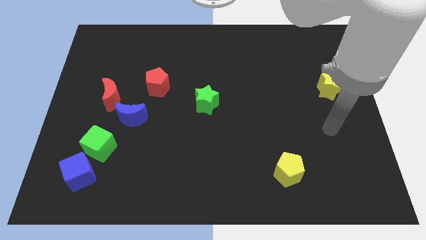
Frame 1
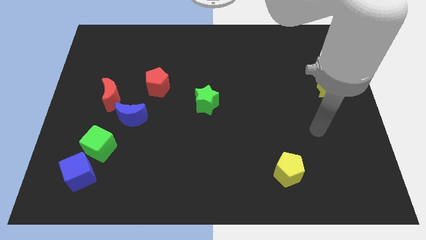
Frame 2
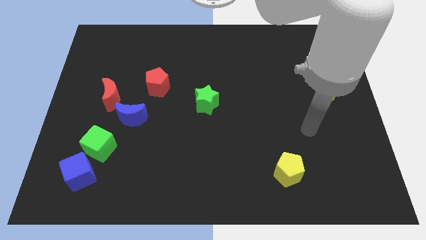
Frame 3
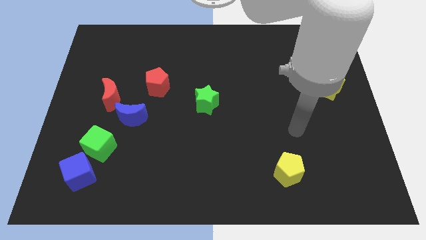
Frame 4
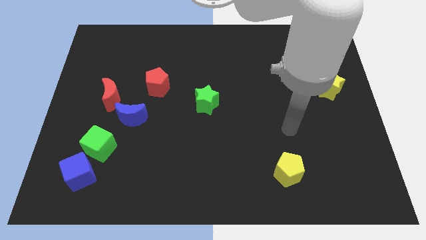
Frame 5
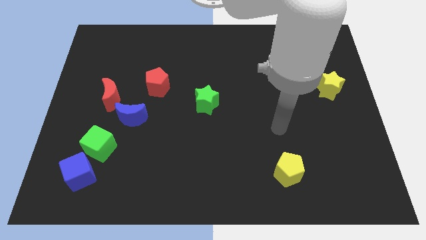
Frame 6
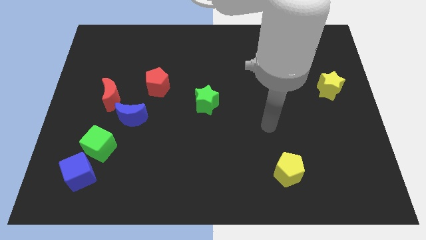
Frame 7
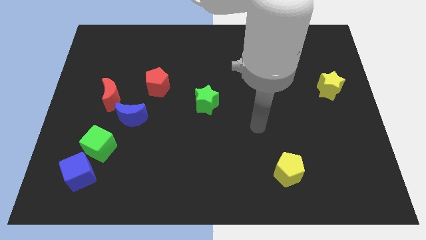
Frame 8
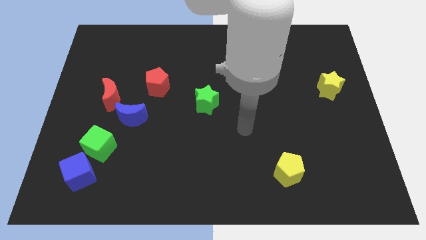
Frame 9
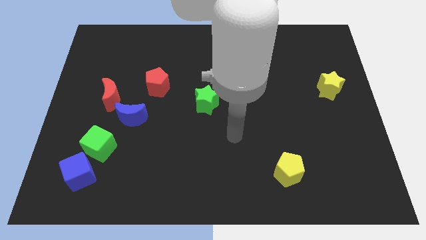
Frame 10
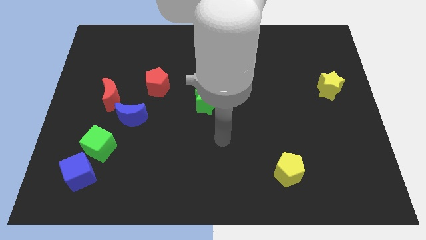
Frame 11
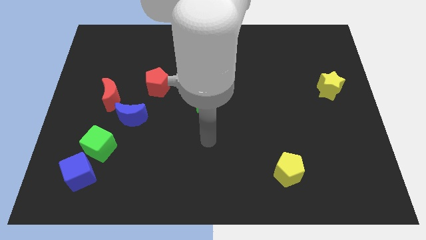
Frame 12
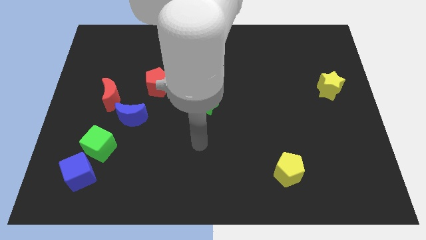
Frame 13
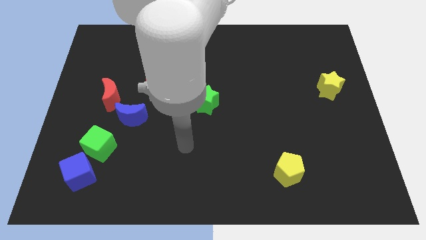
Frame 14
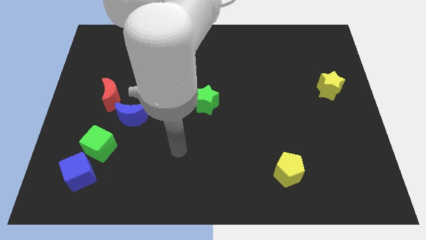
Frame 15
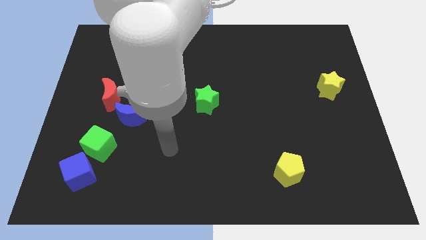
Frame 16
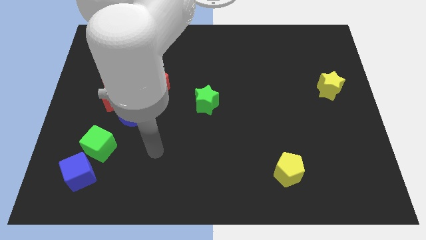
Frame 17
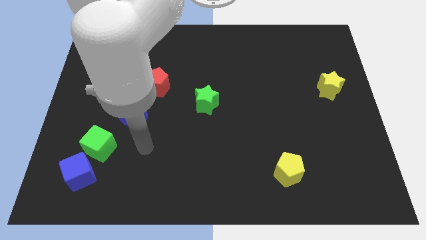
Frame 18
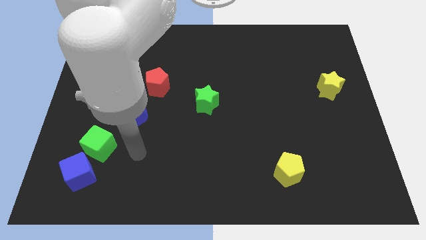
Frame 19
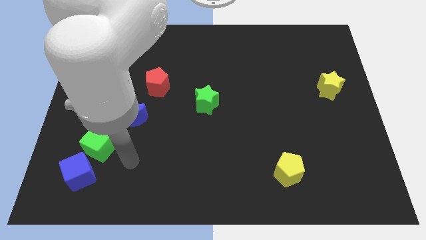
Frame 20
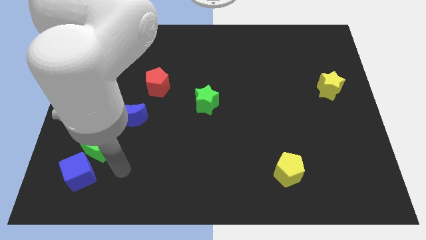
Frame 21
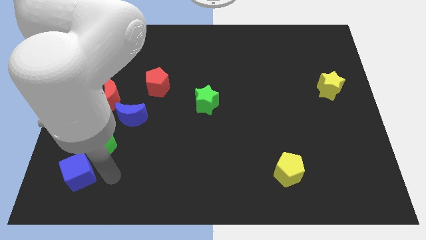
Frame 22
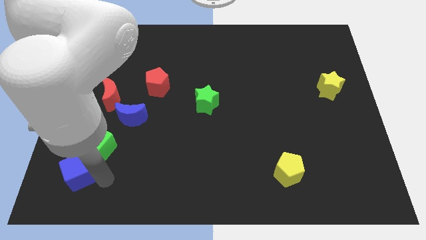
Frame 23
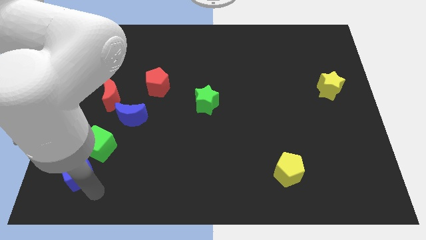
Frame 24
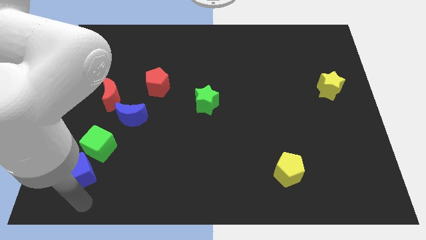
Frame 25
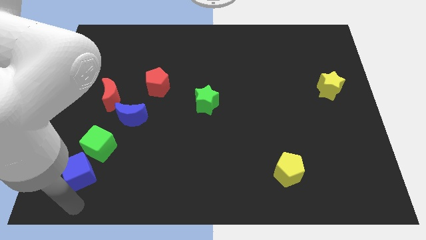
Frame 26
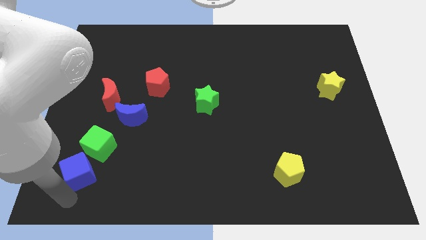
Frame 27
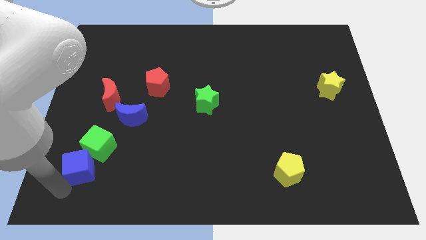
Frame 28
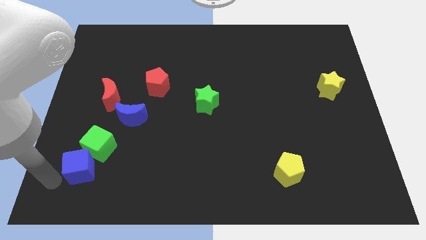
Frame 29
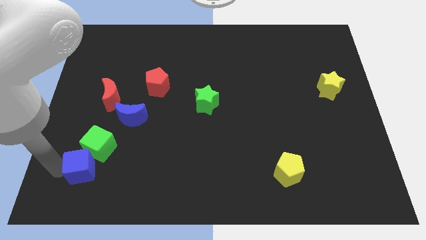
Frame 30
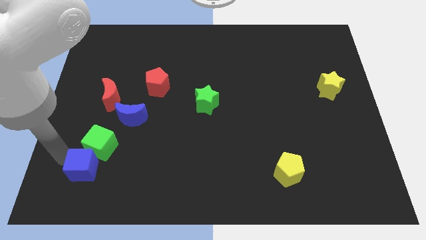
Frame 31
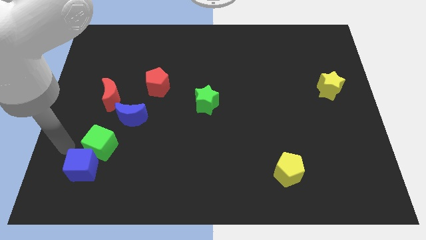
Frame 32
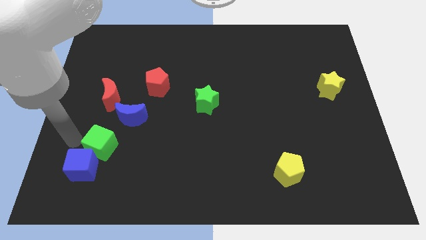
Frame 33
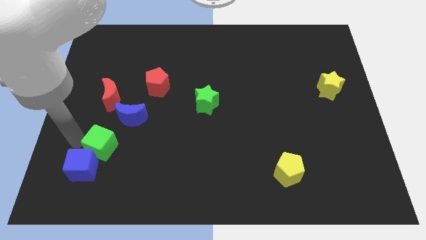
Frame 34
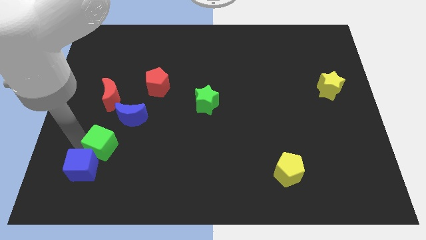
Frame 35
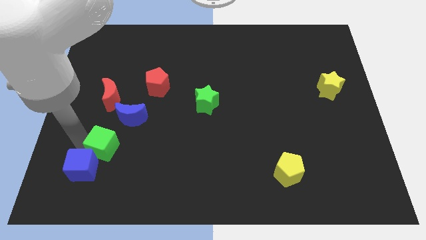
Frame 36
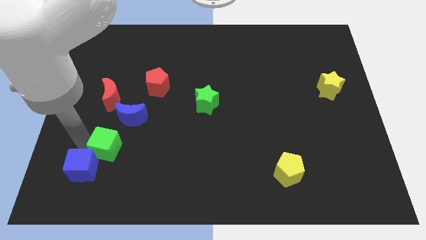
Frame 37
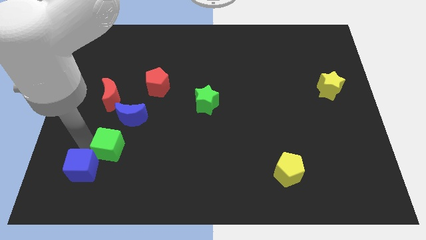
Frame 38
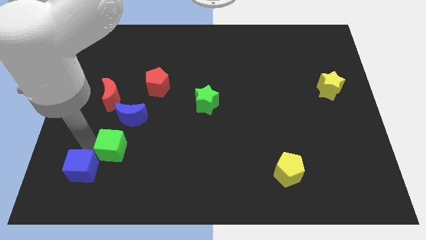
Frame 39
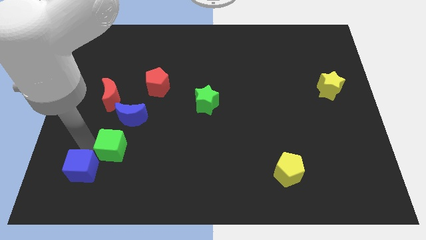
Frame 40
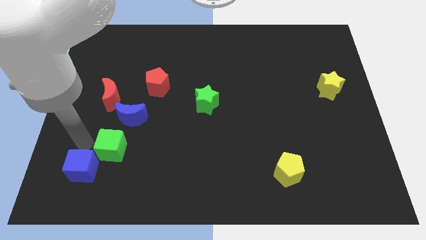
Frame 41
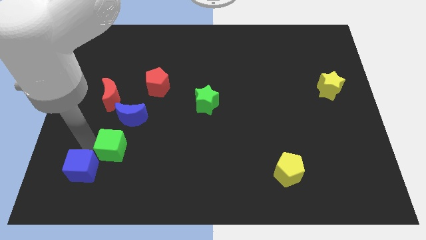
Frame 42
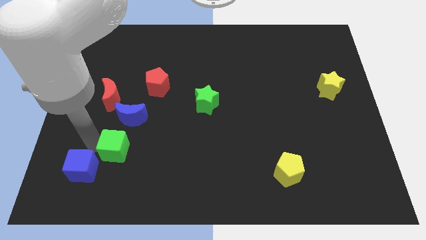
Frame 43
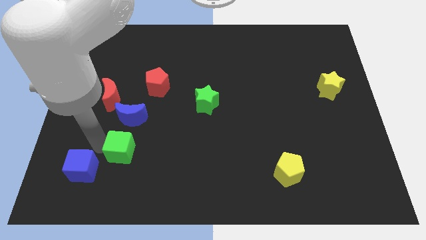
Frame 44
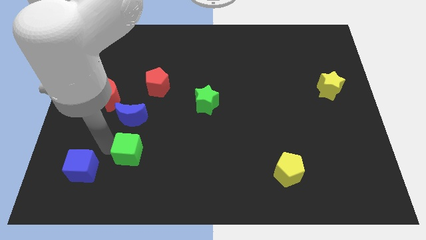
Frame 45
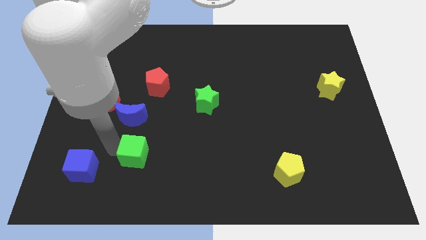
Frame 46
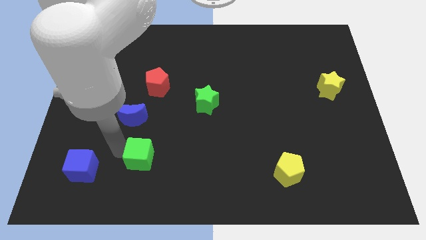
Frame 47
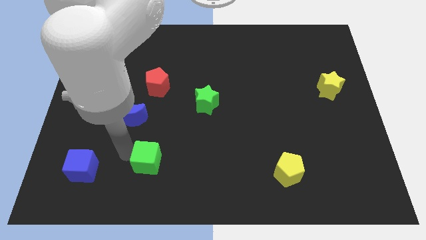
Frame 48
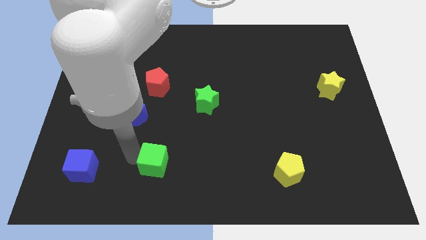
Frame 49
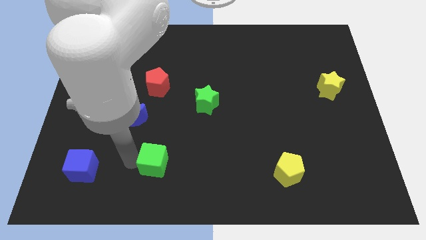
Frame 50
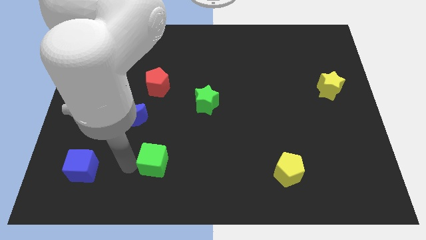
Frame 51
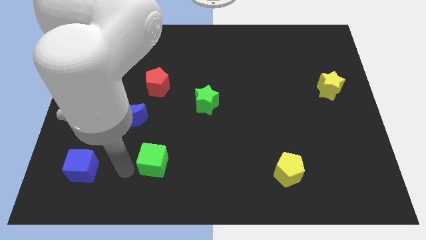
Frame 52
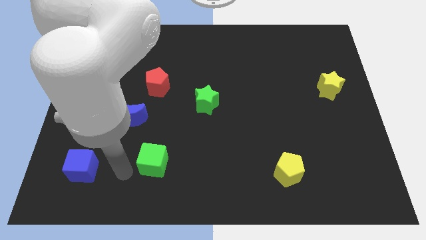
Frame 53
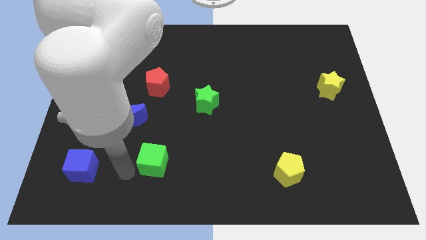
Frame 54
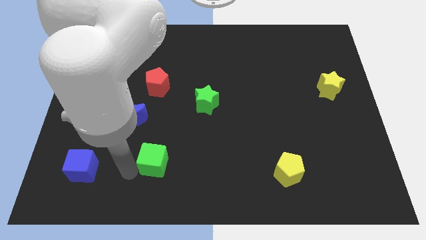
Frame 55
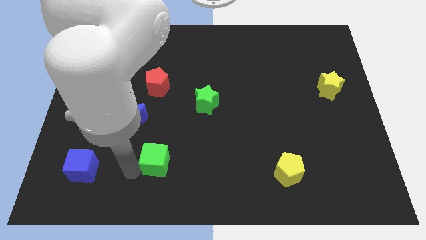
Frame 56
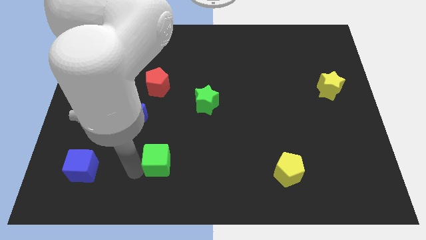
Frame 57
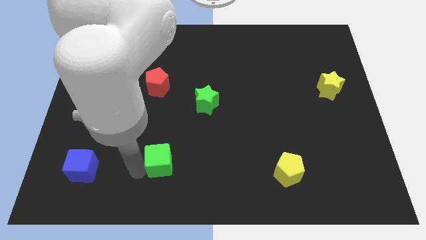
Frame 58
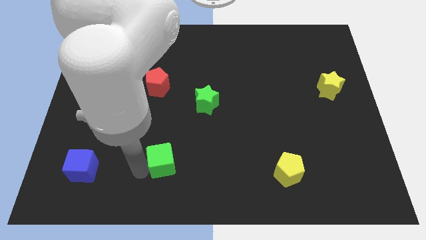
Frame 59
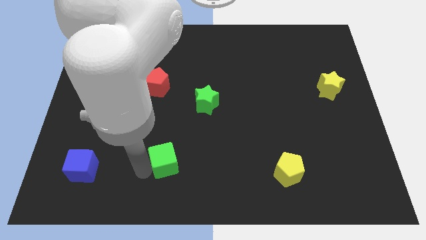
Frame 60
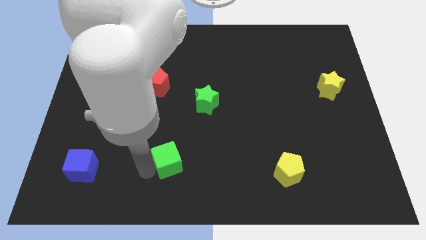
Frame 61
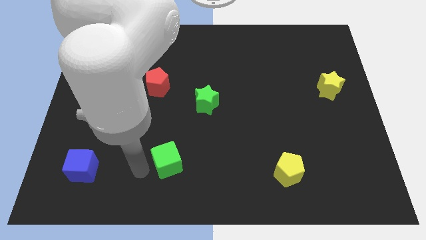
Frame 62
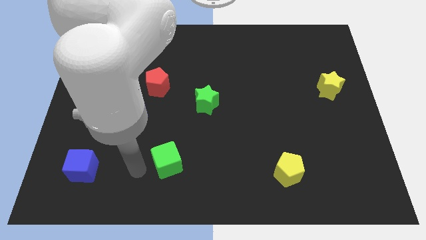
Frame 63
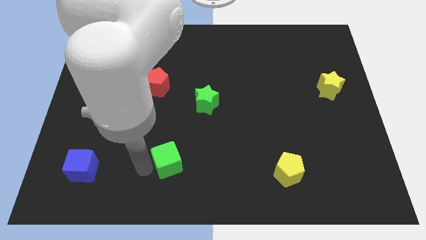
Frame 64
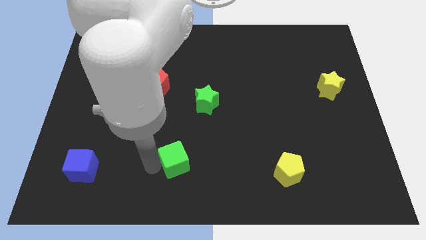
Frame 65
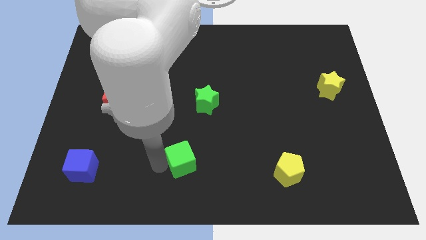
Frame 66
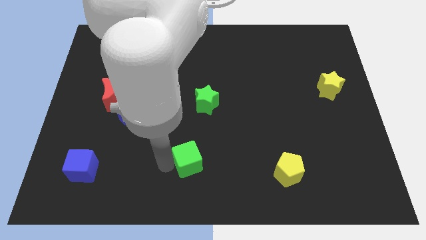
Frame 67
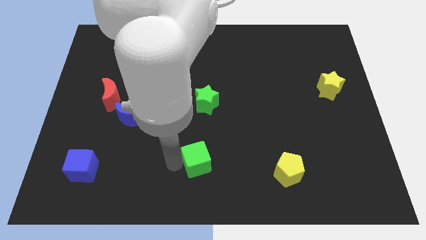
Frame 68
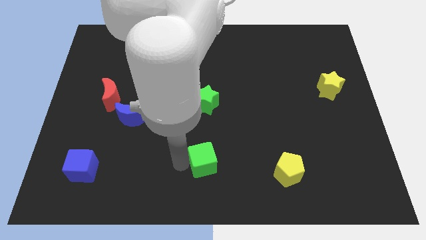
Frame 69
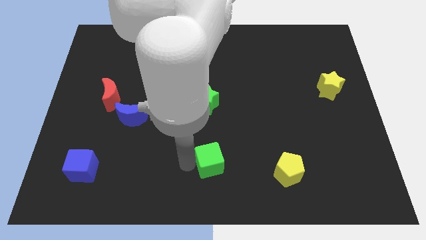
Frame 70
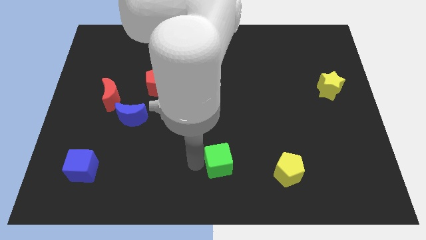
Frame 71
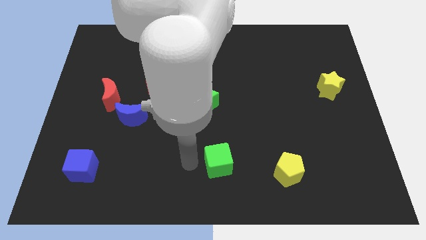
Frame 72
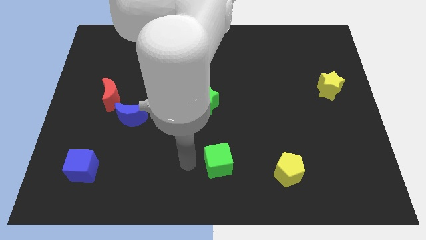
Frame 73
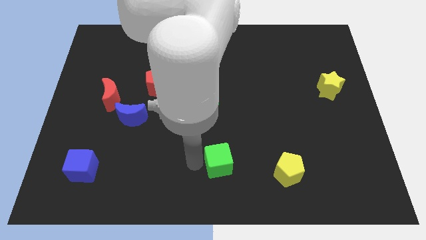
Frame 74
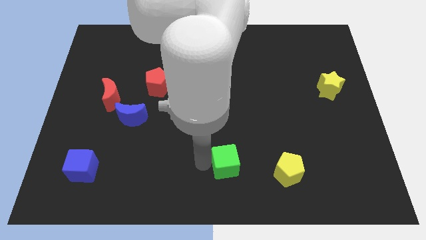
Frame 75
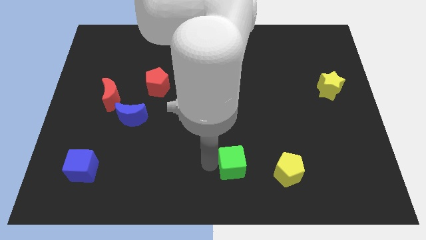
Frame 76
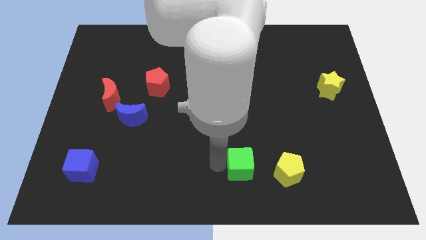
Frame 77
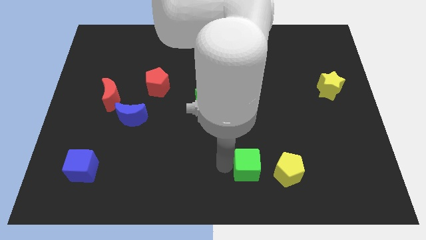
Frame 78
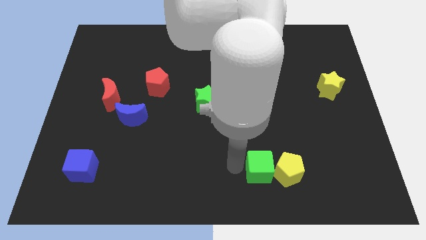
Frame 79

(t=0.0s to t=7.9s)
move the green cube next to the yellow pentagon
